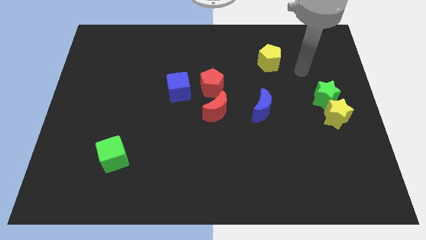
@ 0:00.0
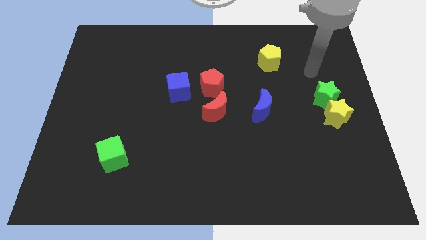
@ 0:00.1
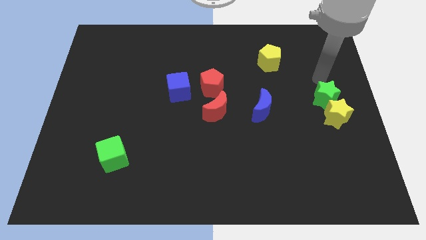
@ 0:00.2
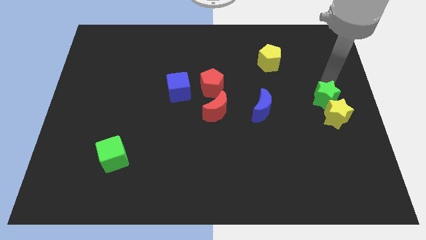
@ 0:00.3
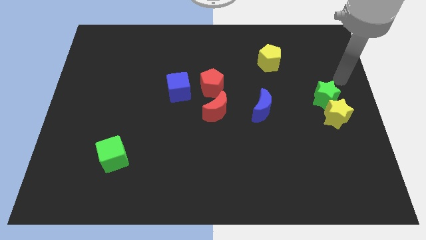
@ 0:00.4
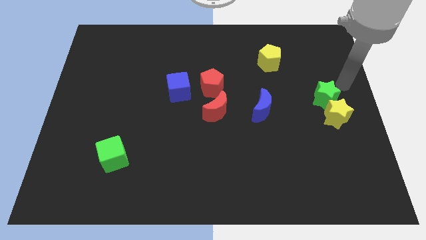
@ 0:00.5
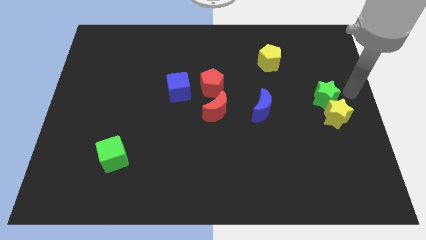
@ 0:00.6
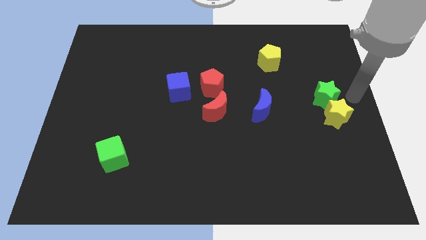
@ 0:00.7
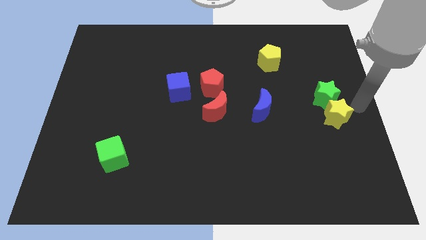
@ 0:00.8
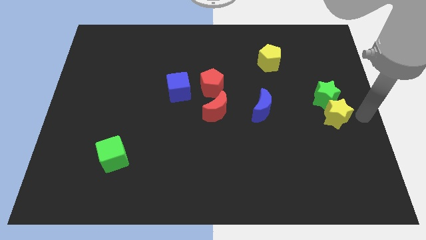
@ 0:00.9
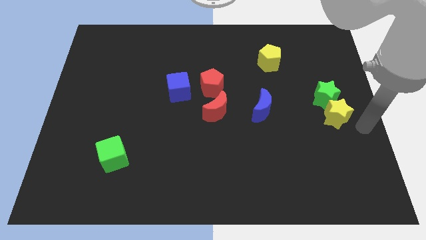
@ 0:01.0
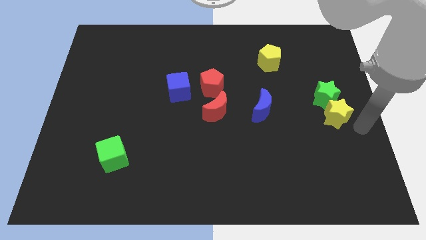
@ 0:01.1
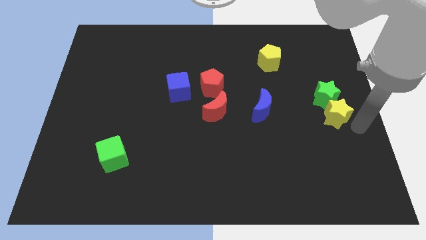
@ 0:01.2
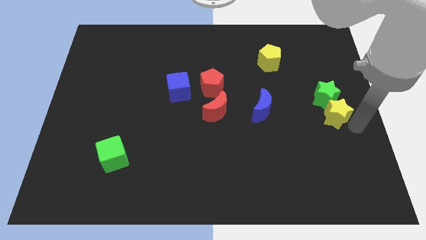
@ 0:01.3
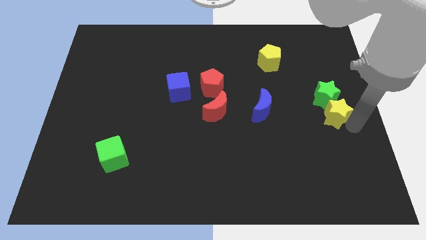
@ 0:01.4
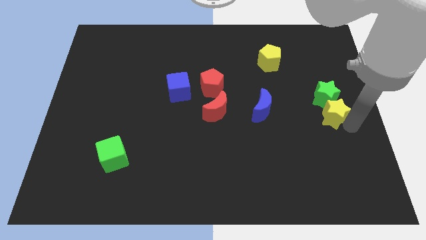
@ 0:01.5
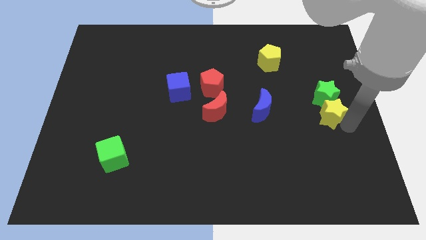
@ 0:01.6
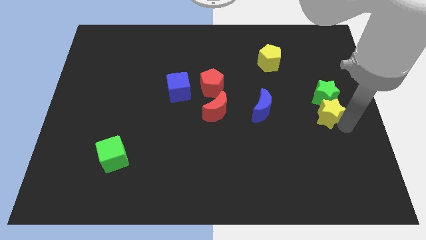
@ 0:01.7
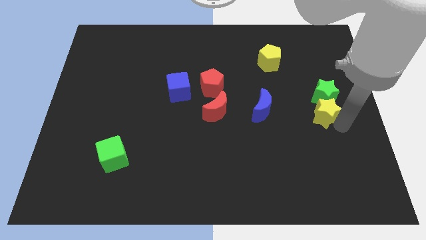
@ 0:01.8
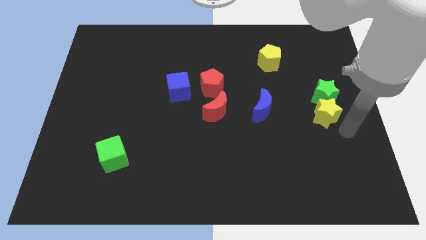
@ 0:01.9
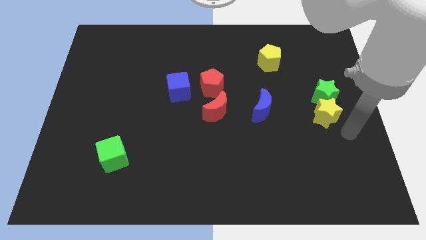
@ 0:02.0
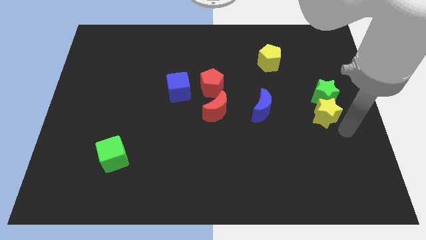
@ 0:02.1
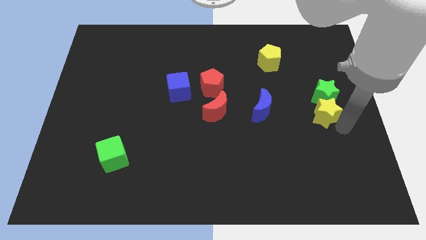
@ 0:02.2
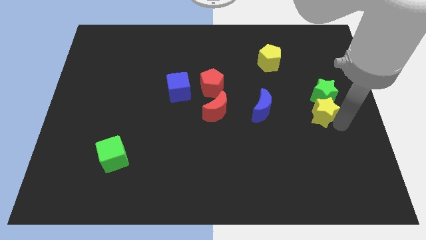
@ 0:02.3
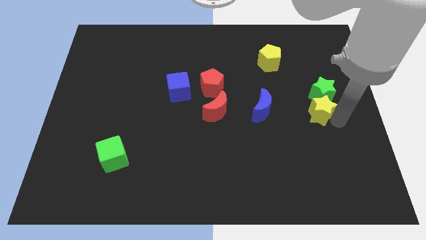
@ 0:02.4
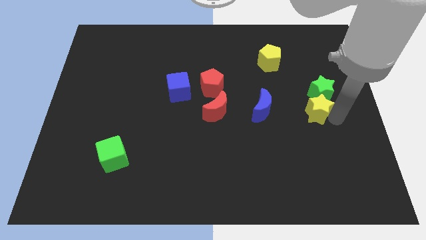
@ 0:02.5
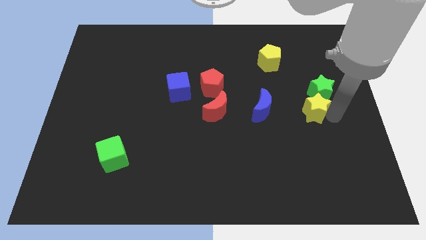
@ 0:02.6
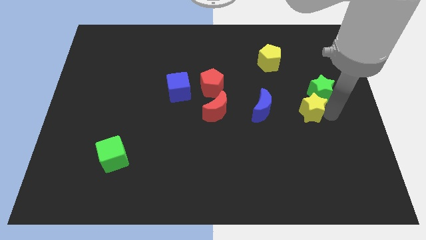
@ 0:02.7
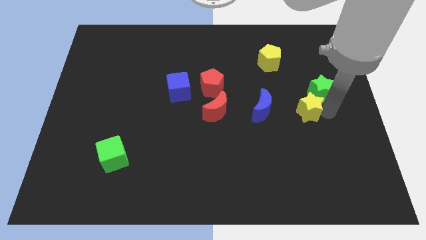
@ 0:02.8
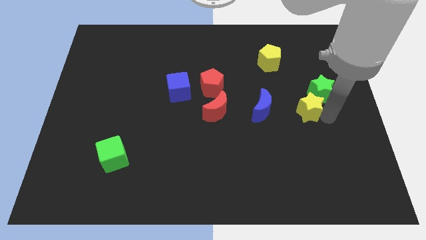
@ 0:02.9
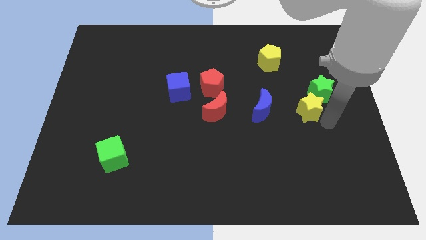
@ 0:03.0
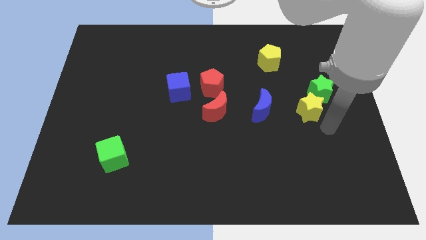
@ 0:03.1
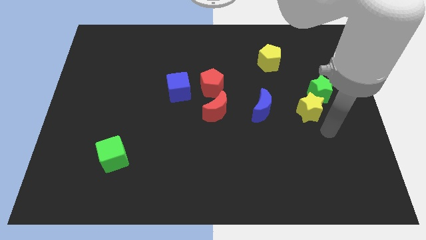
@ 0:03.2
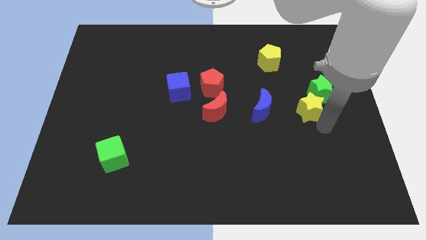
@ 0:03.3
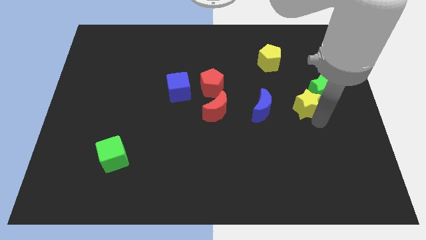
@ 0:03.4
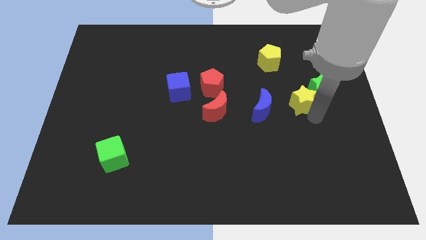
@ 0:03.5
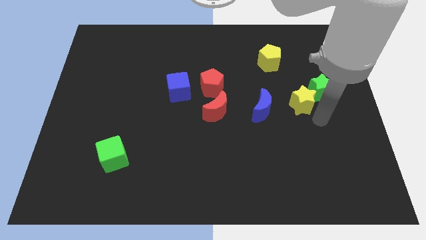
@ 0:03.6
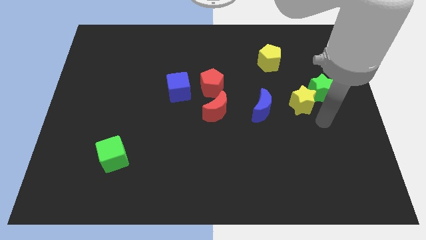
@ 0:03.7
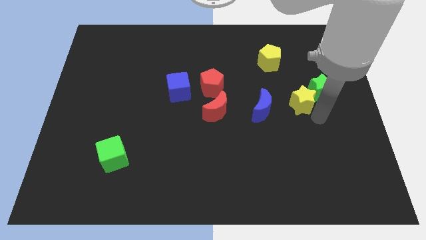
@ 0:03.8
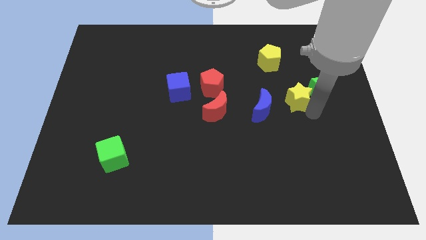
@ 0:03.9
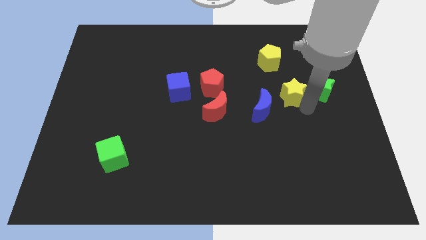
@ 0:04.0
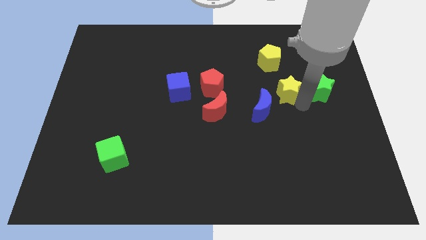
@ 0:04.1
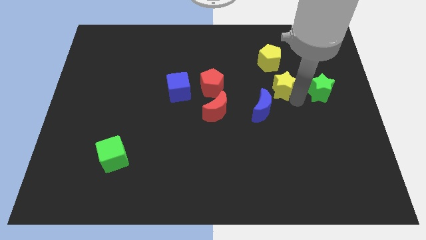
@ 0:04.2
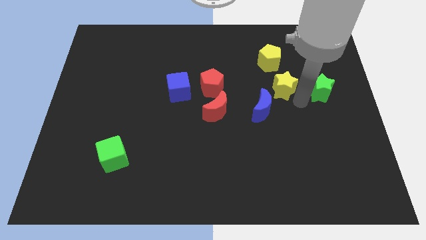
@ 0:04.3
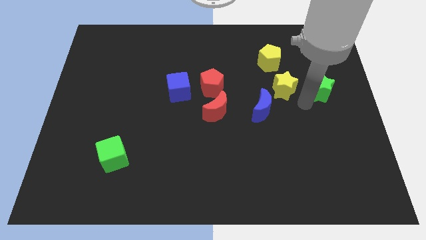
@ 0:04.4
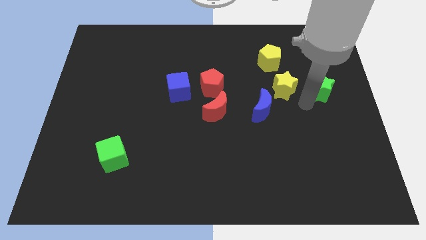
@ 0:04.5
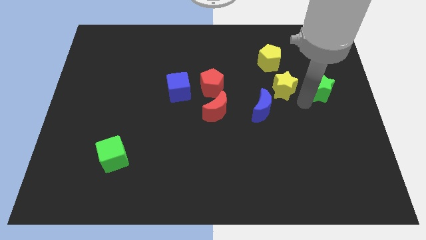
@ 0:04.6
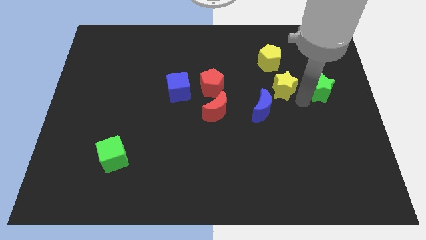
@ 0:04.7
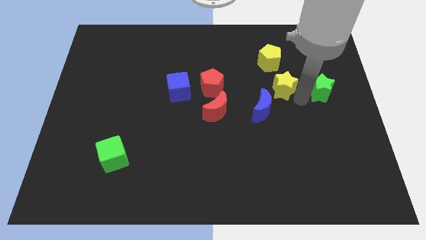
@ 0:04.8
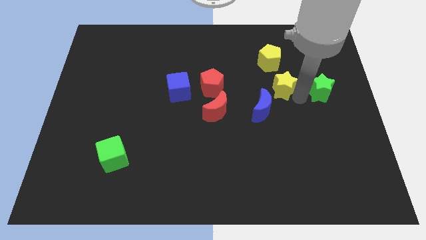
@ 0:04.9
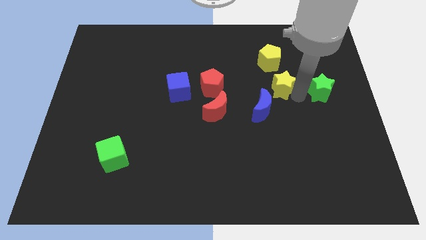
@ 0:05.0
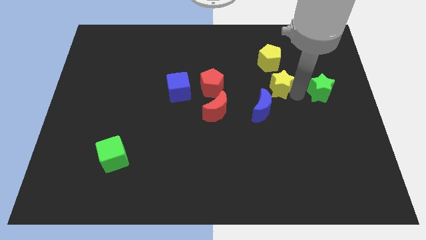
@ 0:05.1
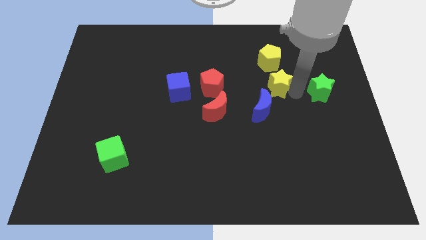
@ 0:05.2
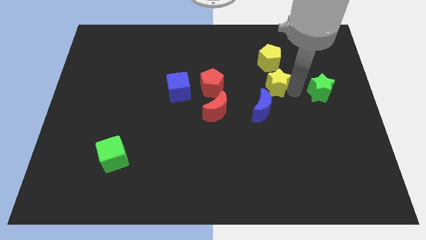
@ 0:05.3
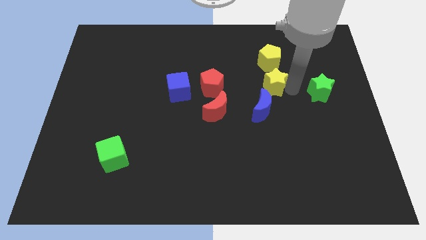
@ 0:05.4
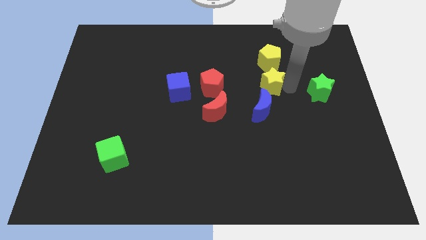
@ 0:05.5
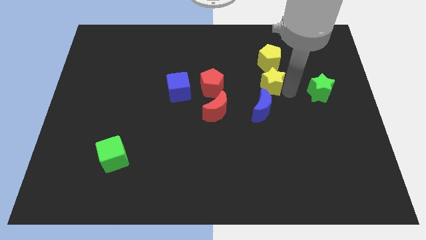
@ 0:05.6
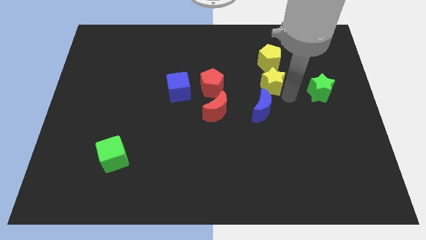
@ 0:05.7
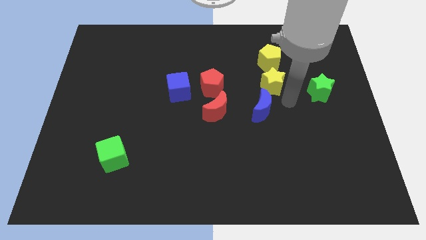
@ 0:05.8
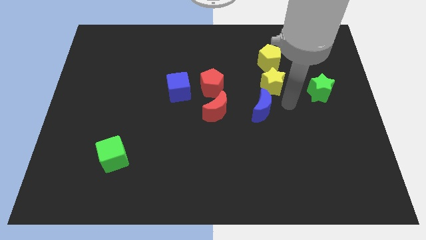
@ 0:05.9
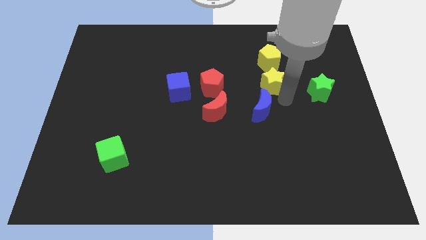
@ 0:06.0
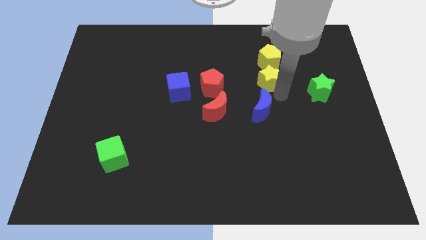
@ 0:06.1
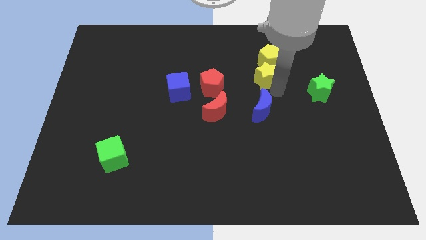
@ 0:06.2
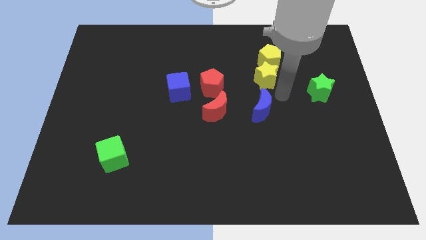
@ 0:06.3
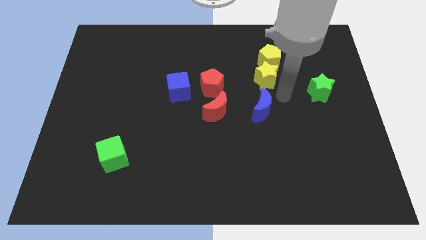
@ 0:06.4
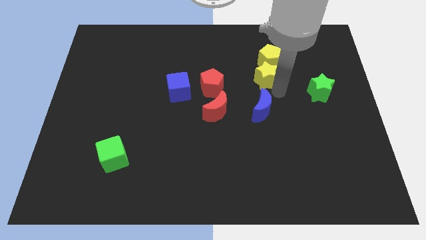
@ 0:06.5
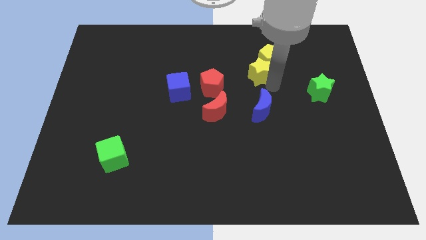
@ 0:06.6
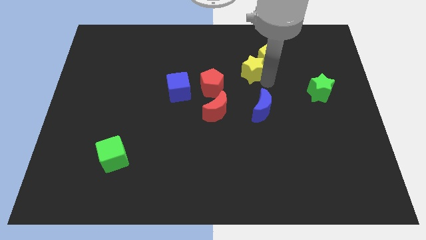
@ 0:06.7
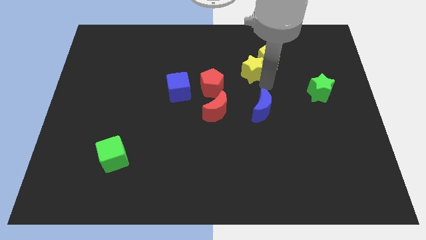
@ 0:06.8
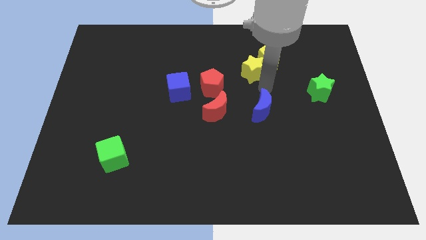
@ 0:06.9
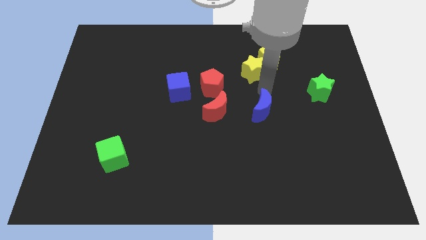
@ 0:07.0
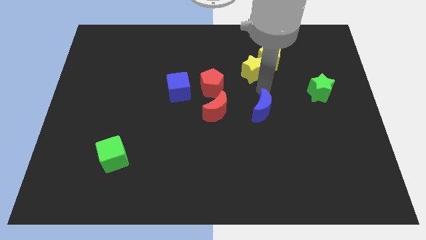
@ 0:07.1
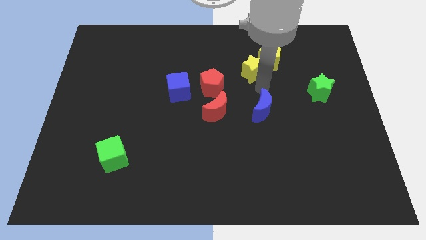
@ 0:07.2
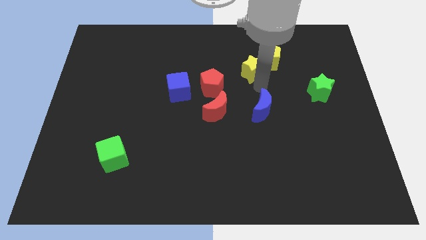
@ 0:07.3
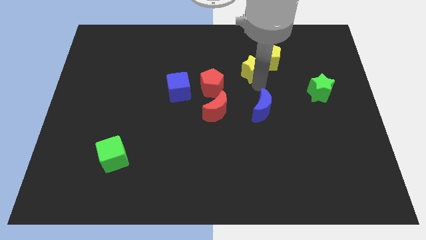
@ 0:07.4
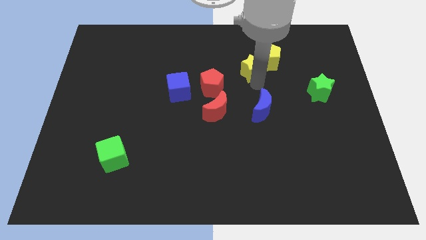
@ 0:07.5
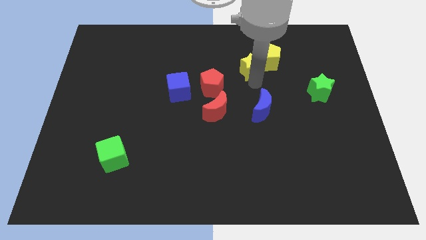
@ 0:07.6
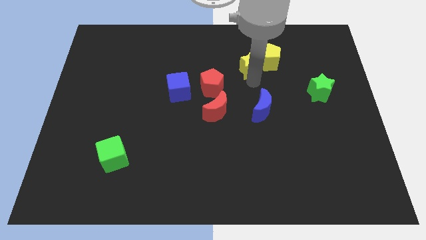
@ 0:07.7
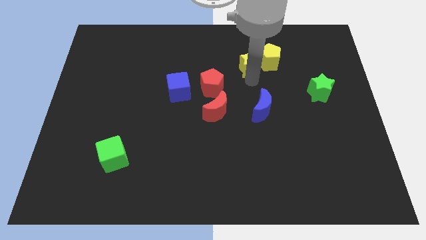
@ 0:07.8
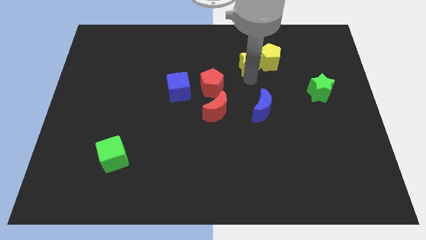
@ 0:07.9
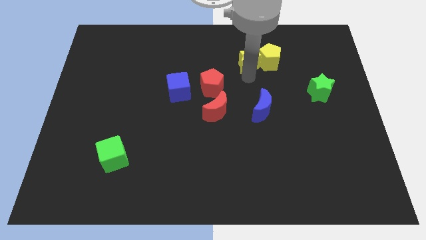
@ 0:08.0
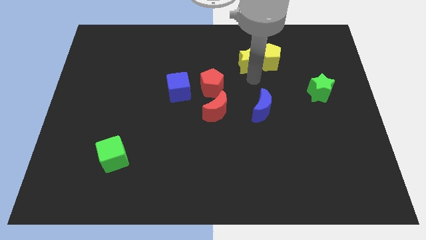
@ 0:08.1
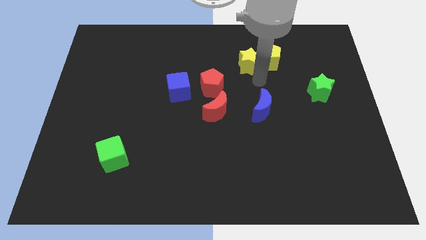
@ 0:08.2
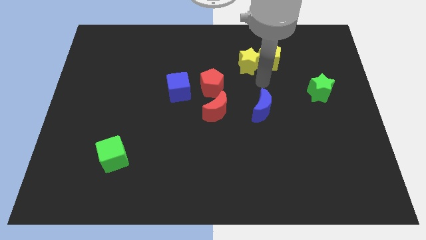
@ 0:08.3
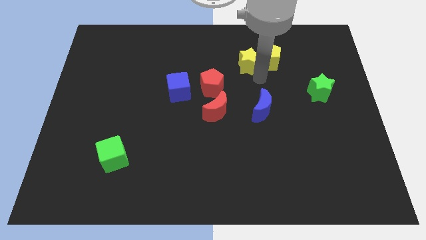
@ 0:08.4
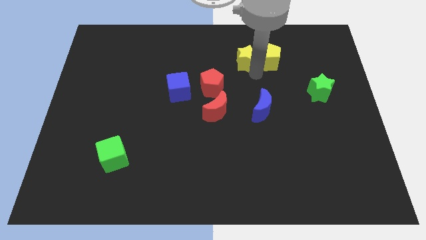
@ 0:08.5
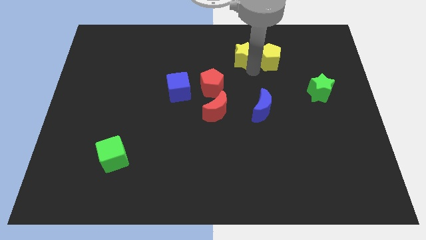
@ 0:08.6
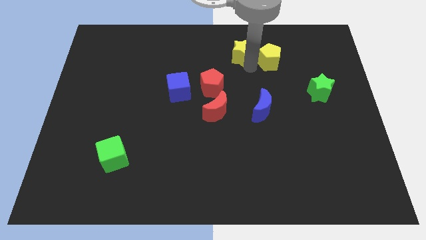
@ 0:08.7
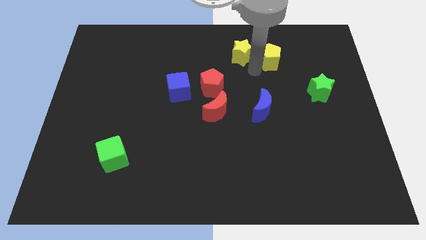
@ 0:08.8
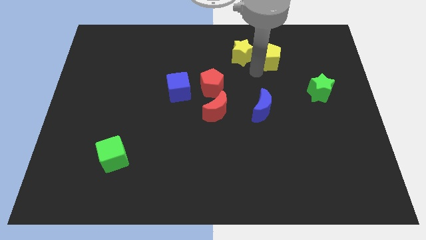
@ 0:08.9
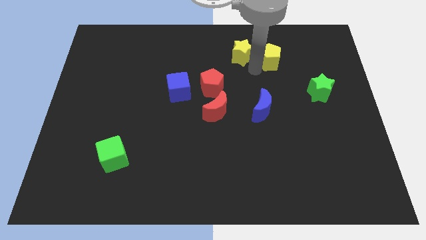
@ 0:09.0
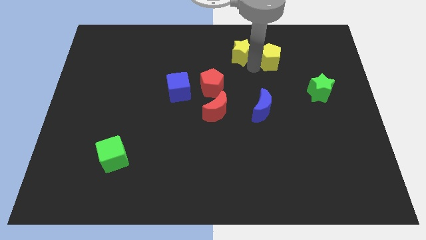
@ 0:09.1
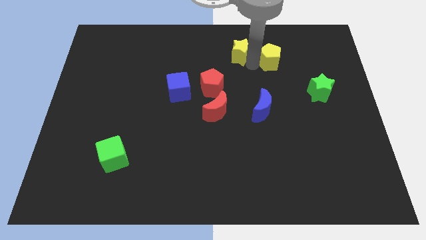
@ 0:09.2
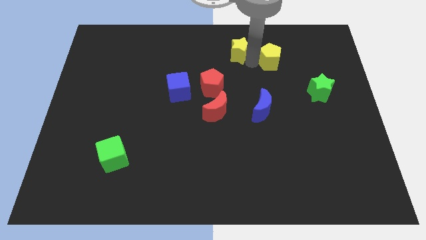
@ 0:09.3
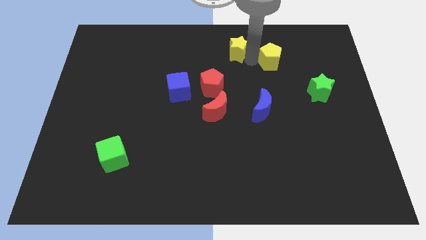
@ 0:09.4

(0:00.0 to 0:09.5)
push the yellow star to the top
